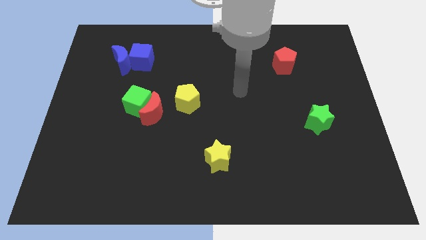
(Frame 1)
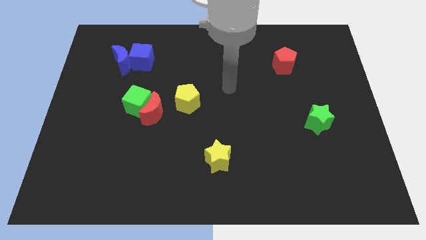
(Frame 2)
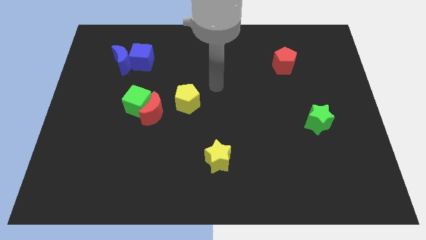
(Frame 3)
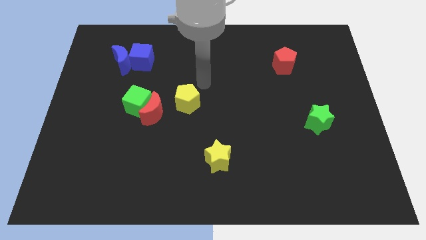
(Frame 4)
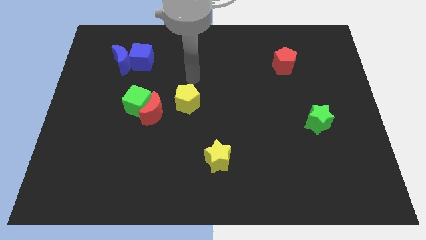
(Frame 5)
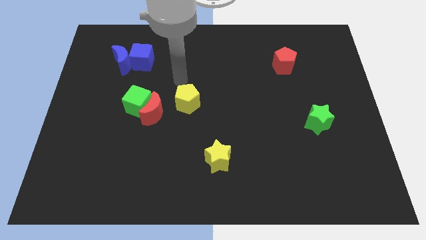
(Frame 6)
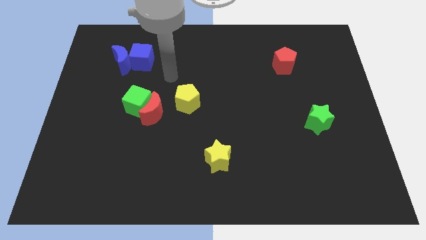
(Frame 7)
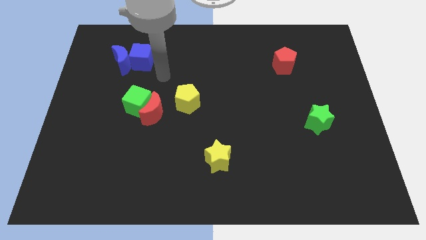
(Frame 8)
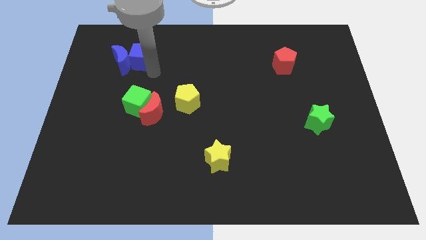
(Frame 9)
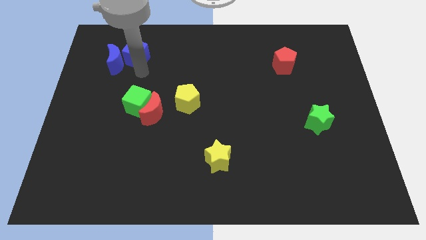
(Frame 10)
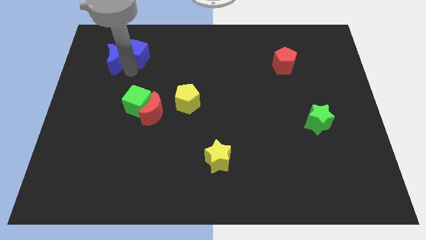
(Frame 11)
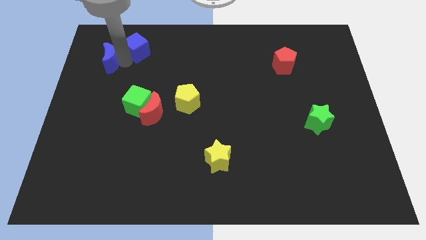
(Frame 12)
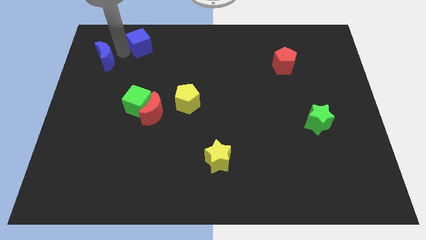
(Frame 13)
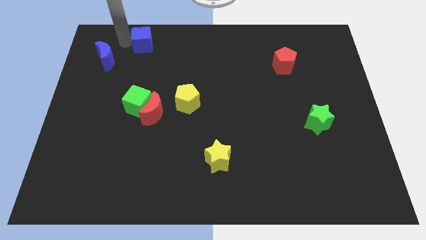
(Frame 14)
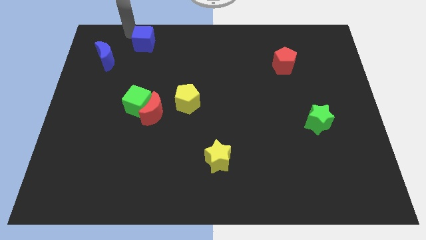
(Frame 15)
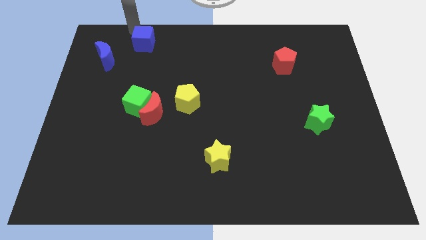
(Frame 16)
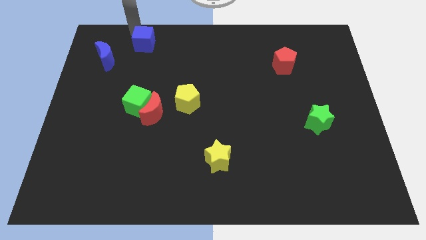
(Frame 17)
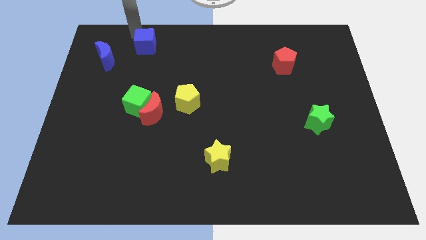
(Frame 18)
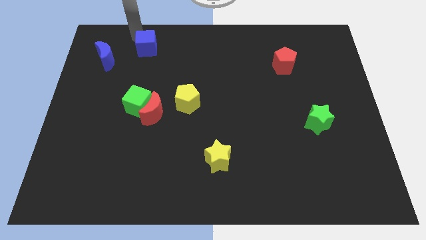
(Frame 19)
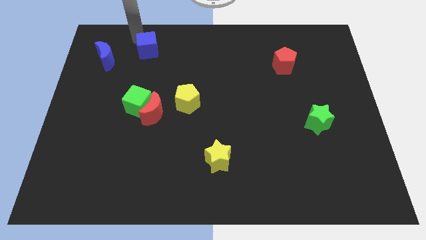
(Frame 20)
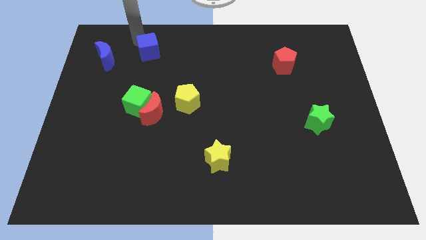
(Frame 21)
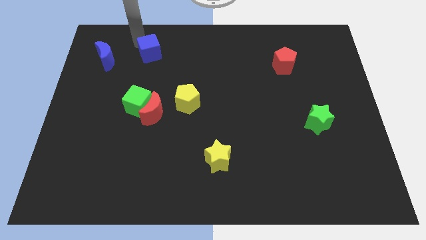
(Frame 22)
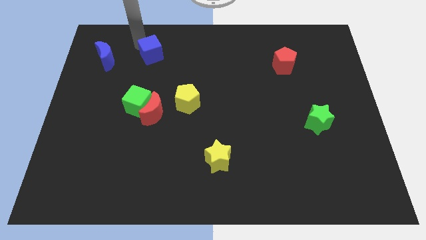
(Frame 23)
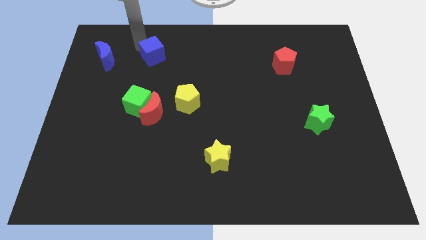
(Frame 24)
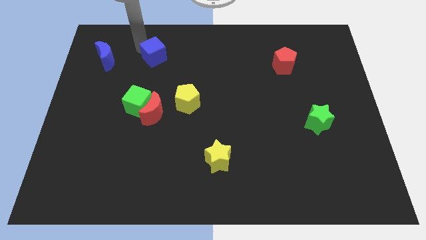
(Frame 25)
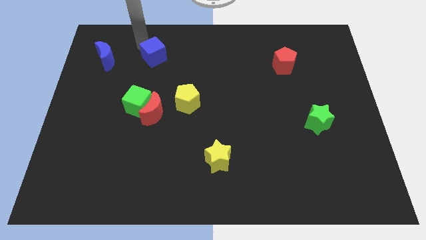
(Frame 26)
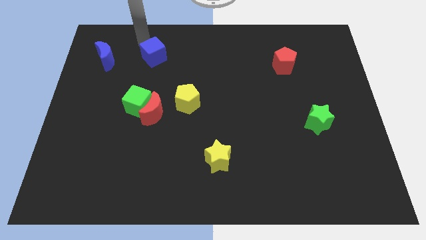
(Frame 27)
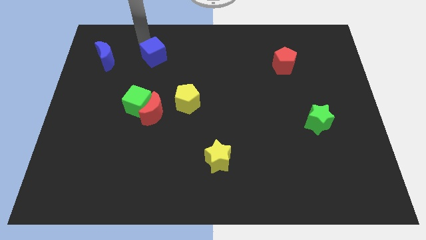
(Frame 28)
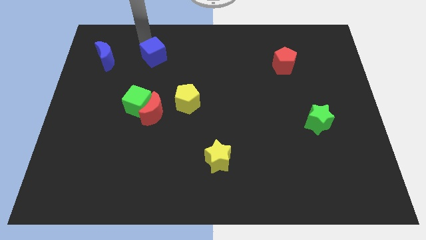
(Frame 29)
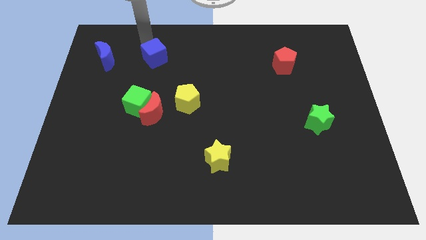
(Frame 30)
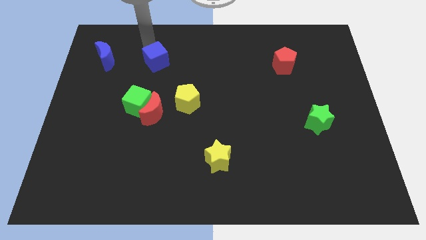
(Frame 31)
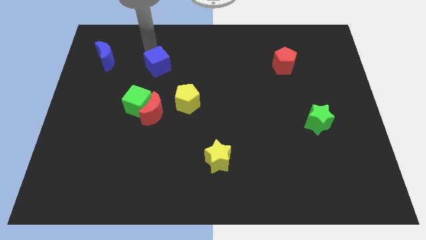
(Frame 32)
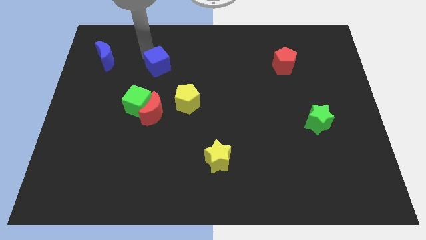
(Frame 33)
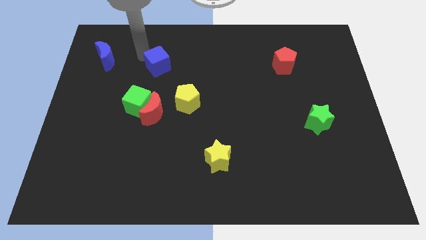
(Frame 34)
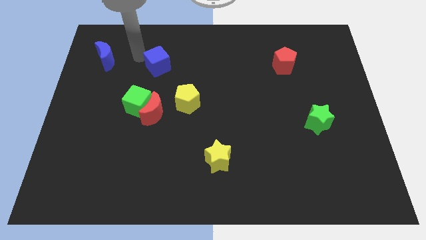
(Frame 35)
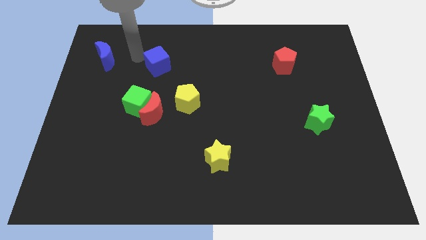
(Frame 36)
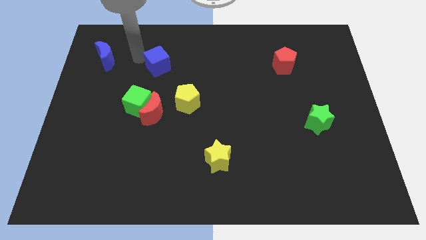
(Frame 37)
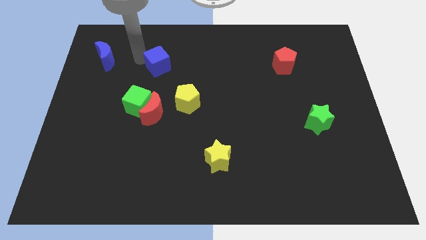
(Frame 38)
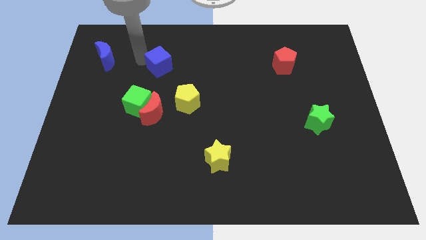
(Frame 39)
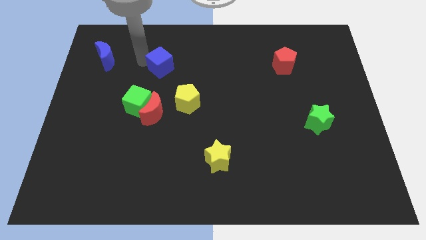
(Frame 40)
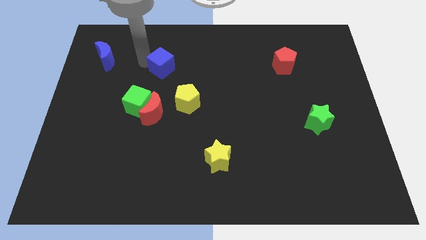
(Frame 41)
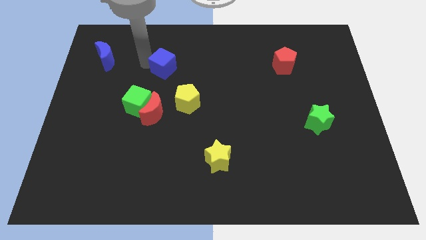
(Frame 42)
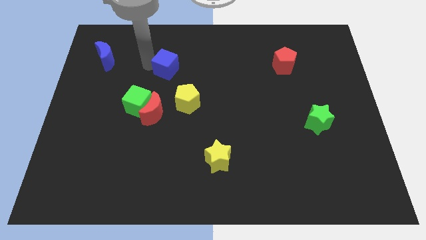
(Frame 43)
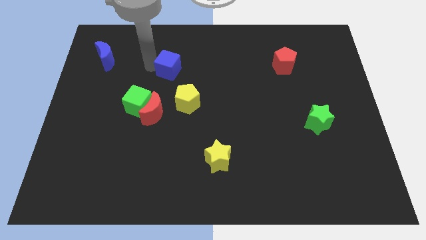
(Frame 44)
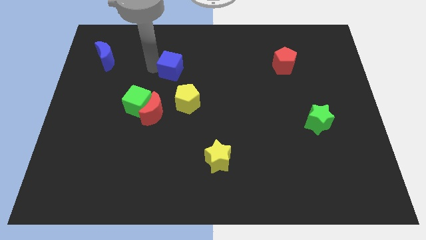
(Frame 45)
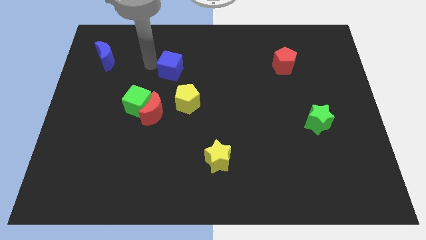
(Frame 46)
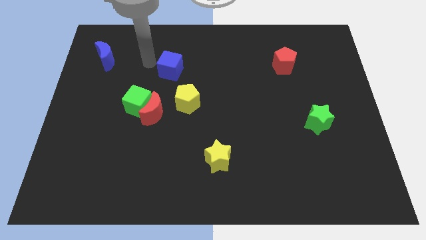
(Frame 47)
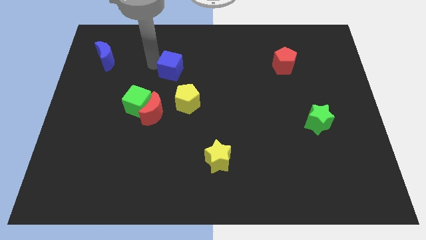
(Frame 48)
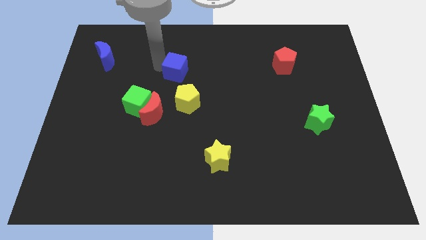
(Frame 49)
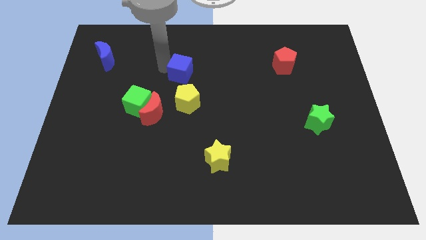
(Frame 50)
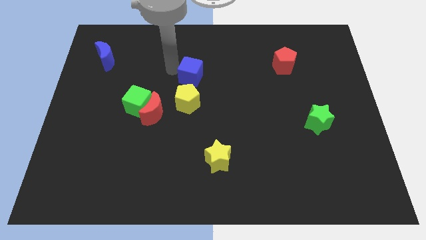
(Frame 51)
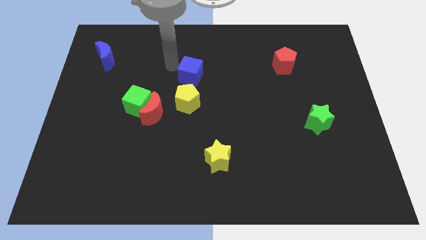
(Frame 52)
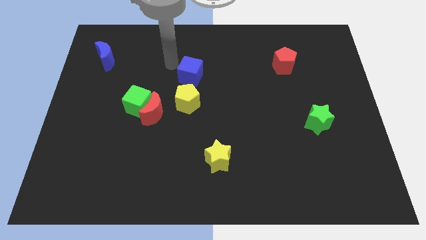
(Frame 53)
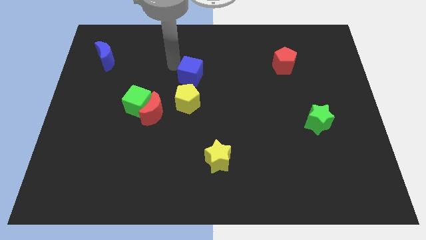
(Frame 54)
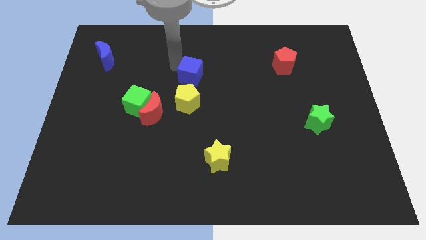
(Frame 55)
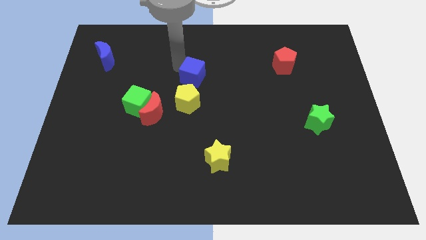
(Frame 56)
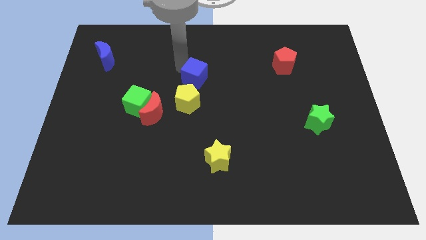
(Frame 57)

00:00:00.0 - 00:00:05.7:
push the blue cube diagonally up and to the right of the yellow pentagon

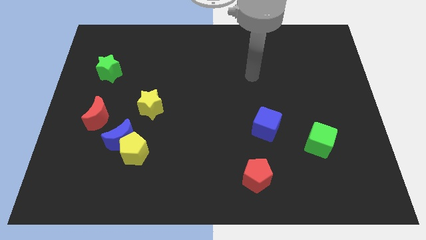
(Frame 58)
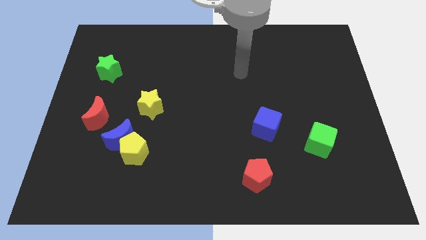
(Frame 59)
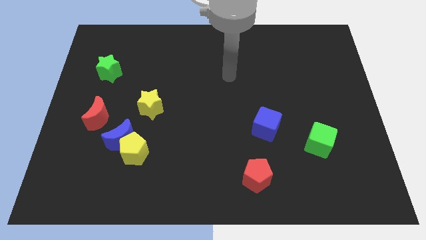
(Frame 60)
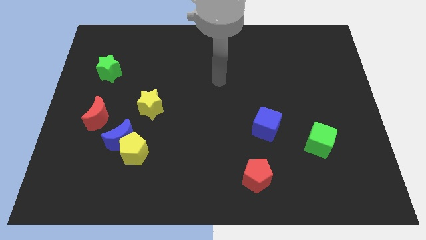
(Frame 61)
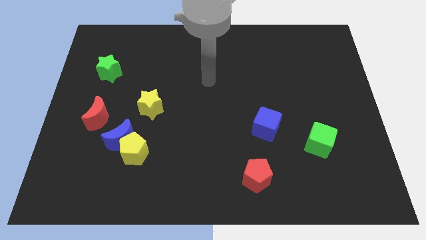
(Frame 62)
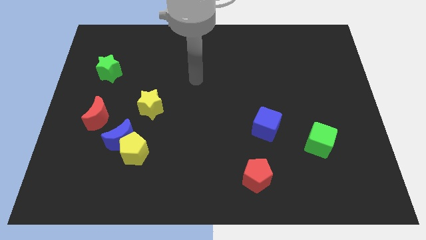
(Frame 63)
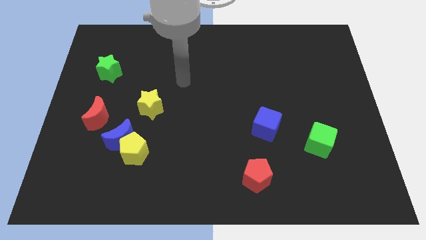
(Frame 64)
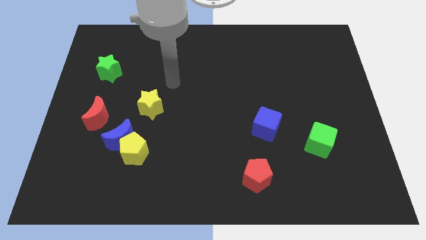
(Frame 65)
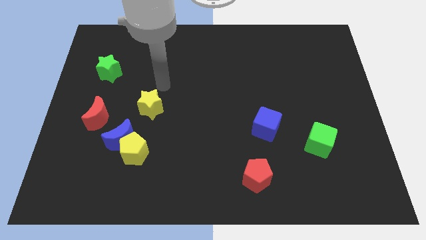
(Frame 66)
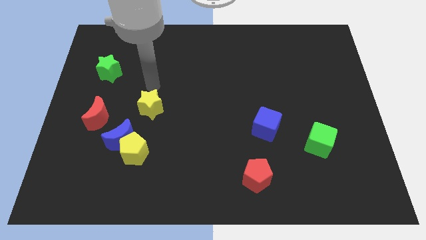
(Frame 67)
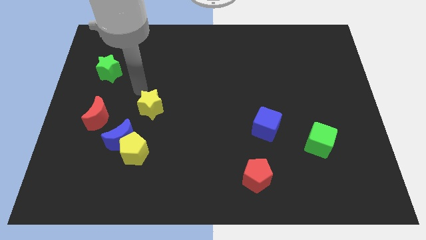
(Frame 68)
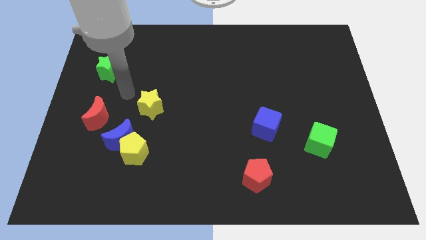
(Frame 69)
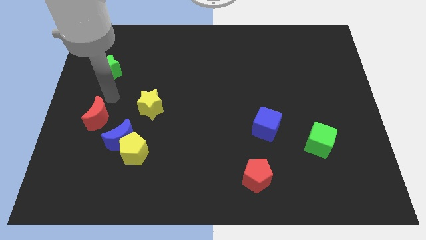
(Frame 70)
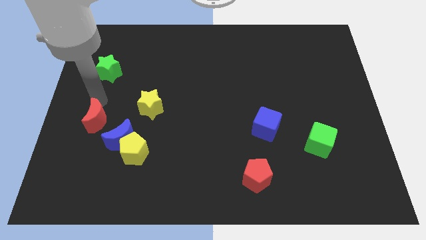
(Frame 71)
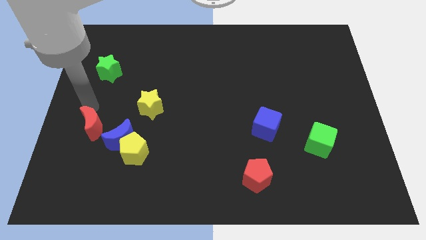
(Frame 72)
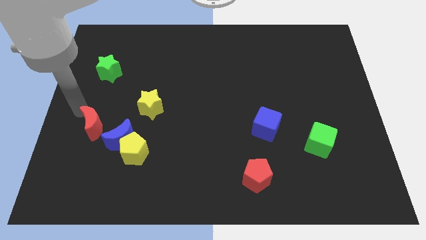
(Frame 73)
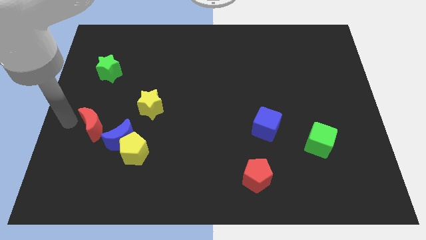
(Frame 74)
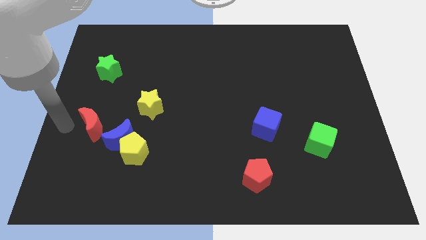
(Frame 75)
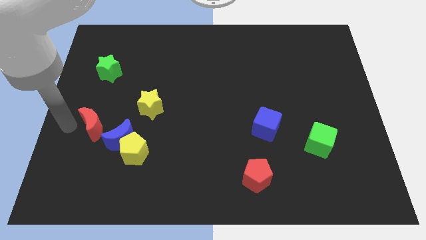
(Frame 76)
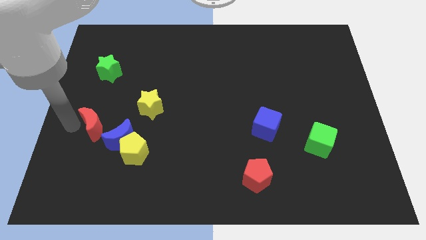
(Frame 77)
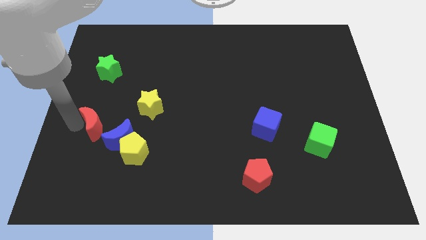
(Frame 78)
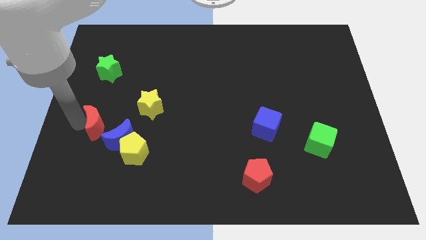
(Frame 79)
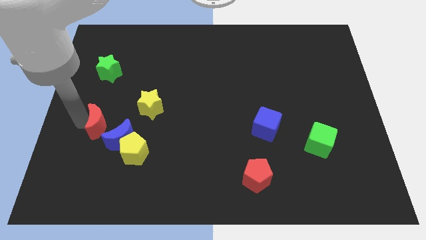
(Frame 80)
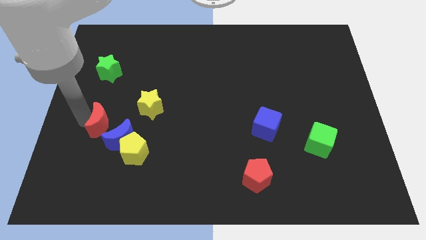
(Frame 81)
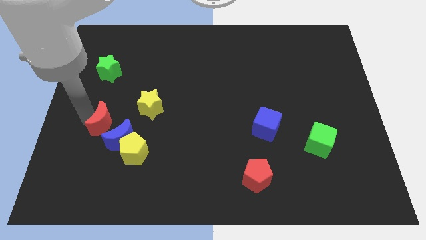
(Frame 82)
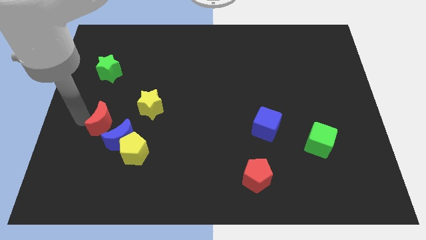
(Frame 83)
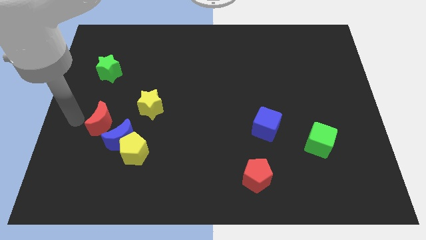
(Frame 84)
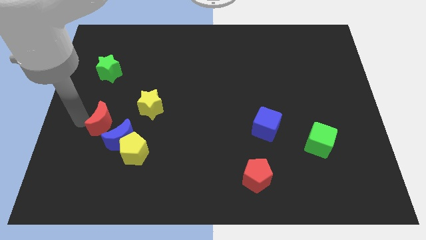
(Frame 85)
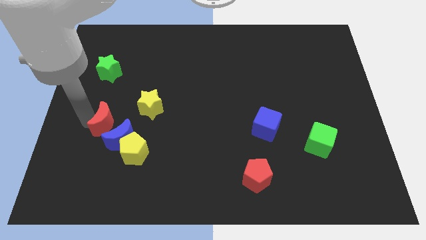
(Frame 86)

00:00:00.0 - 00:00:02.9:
put the red moon diagonally down and to the left of the yellow star
